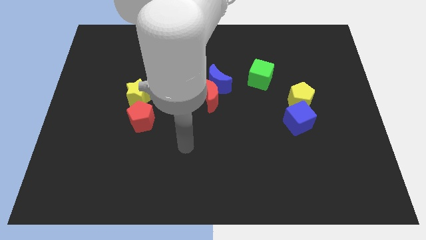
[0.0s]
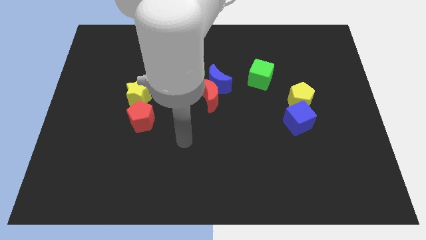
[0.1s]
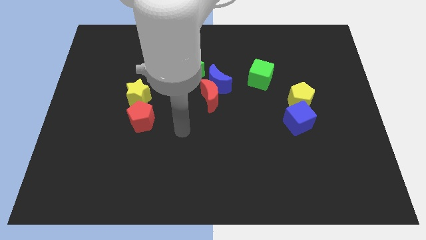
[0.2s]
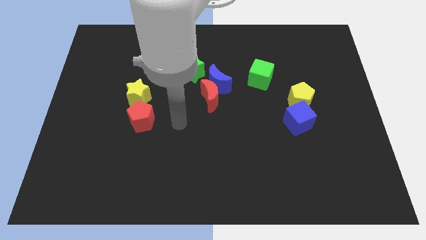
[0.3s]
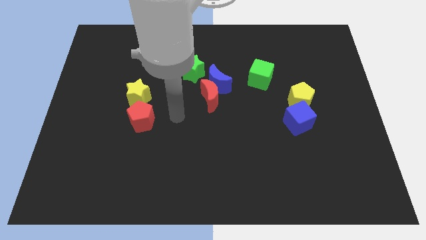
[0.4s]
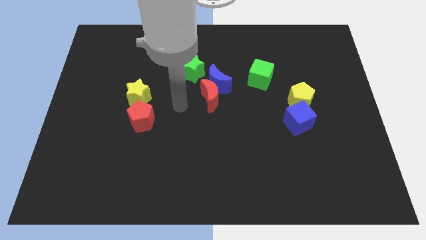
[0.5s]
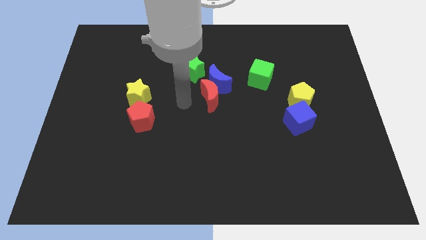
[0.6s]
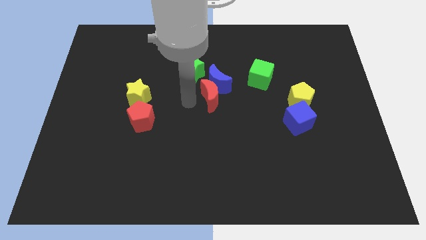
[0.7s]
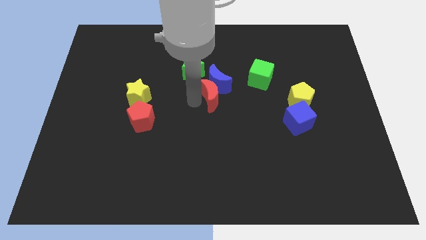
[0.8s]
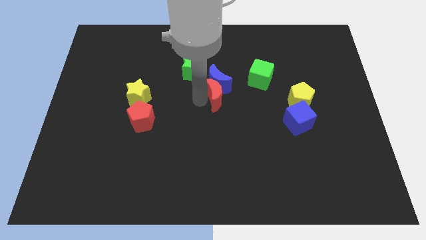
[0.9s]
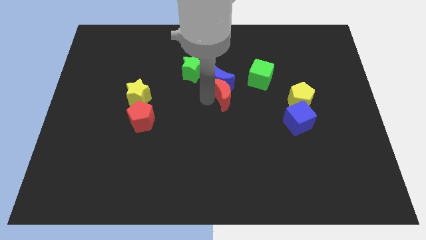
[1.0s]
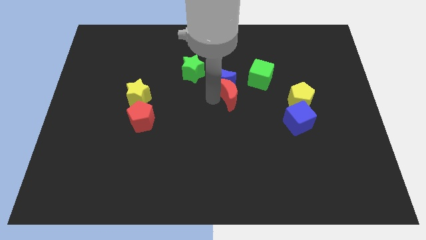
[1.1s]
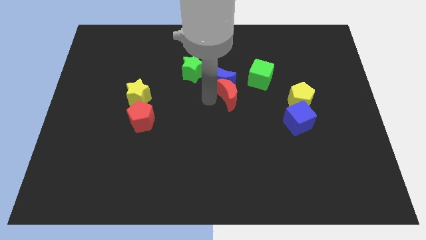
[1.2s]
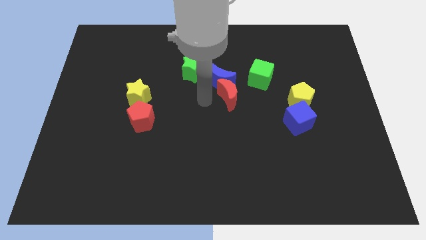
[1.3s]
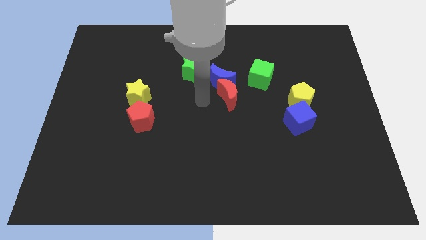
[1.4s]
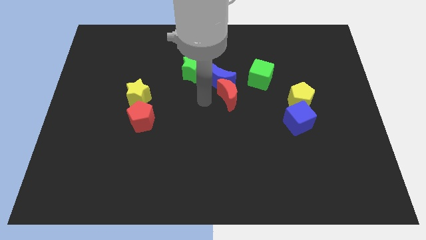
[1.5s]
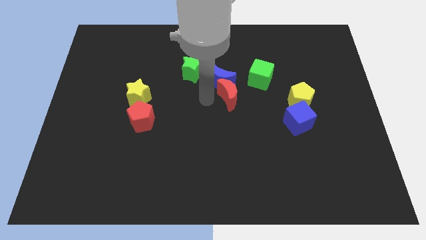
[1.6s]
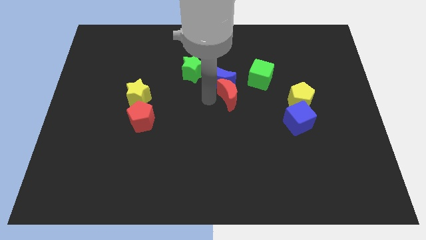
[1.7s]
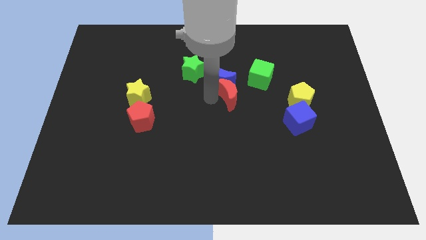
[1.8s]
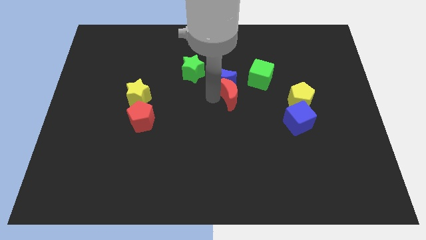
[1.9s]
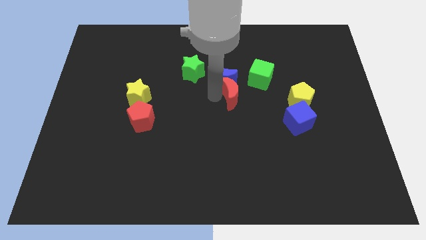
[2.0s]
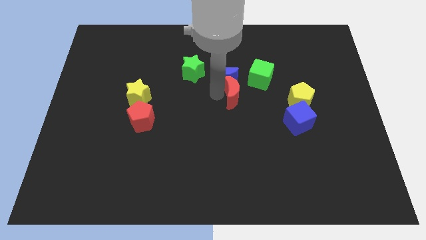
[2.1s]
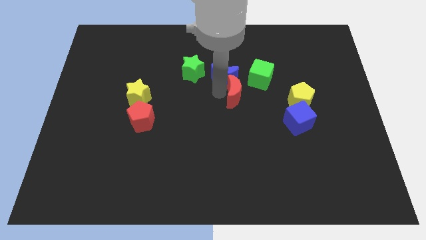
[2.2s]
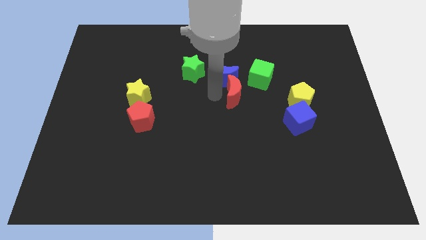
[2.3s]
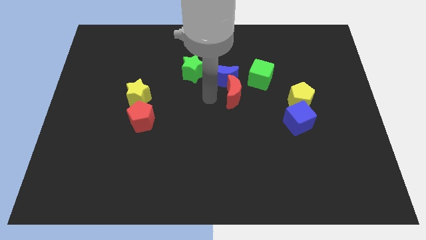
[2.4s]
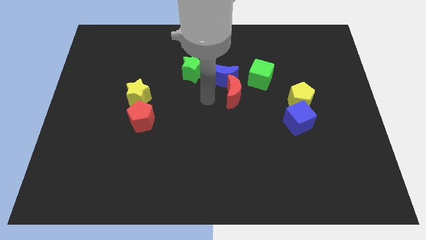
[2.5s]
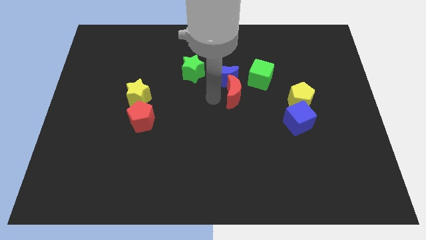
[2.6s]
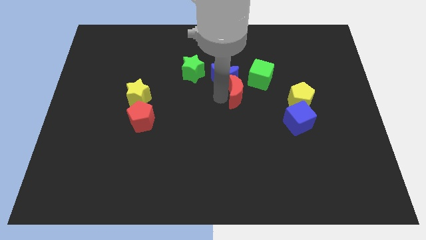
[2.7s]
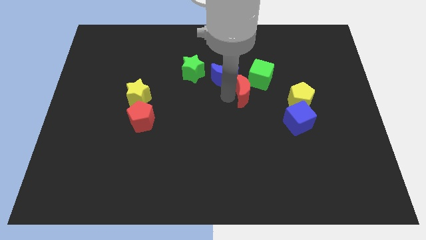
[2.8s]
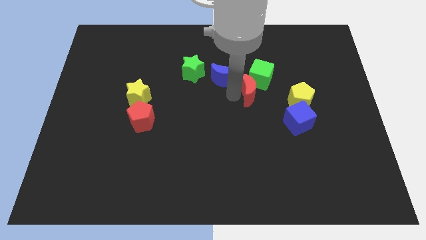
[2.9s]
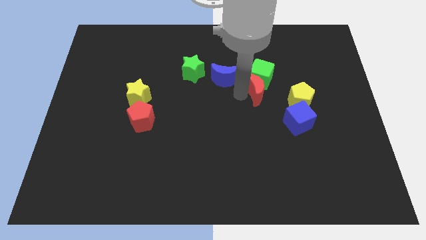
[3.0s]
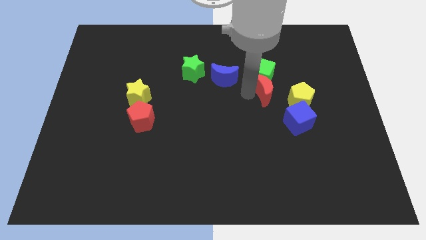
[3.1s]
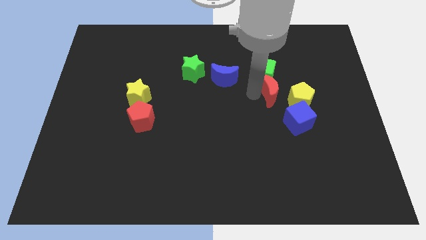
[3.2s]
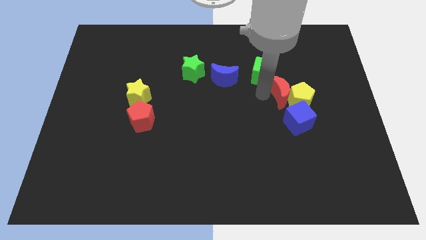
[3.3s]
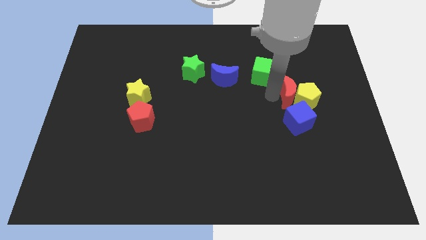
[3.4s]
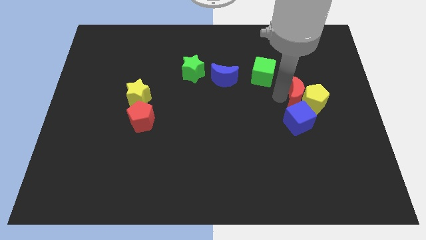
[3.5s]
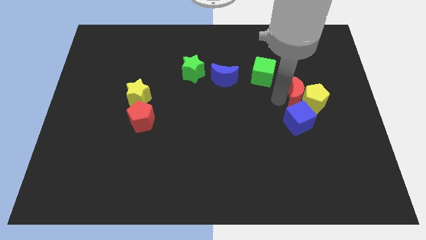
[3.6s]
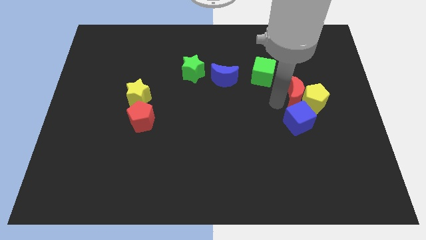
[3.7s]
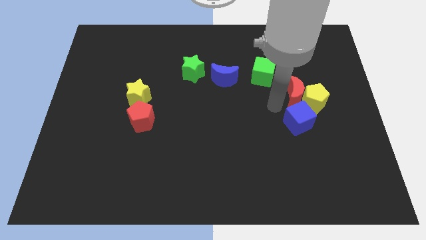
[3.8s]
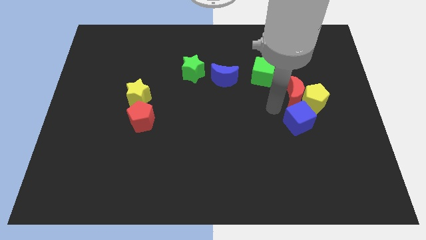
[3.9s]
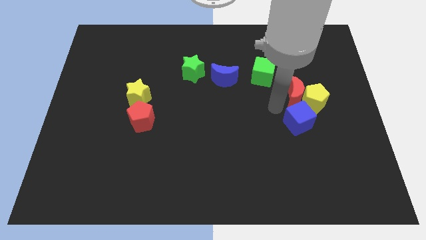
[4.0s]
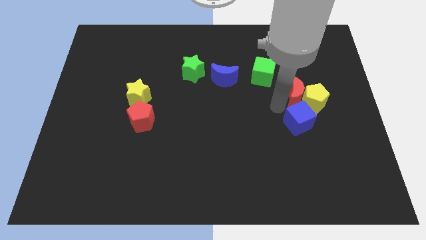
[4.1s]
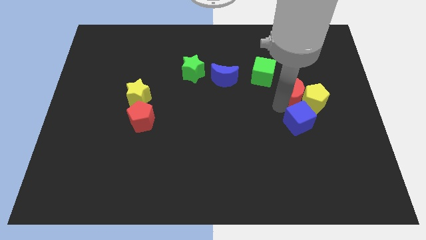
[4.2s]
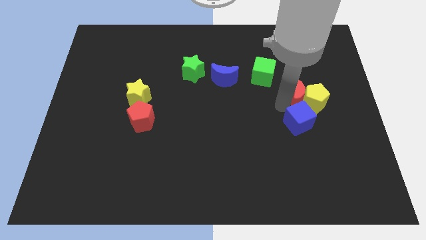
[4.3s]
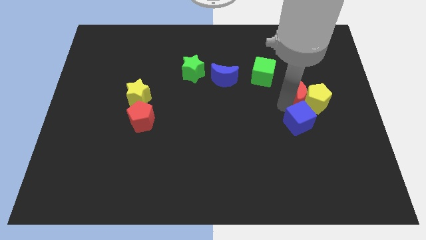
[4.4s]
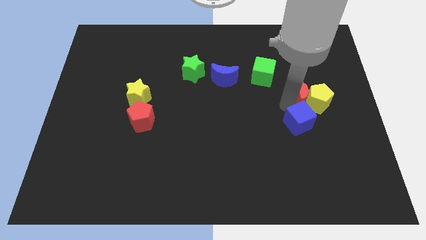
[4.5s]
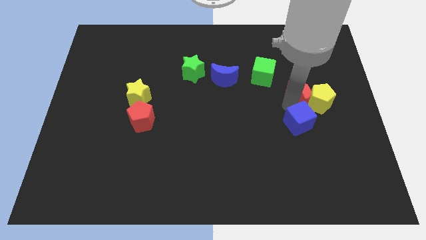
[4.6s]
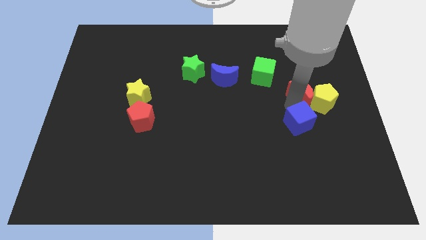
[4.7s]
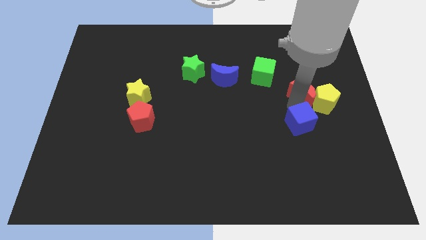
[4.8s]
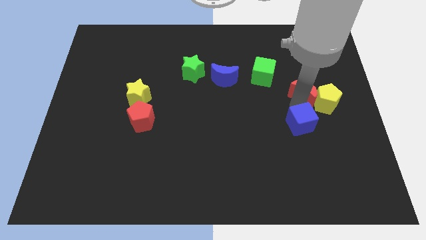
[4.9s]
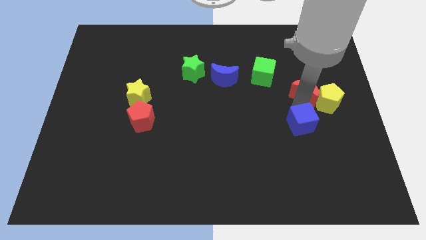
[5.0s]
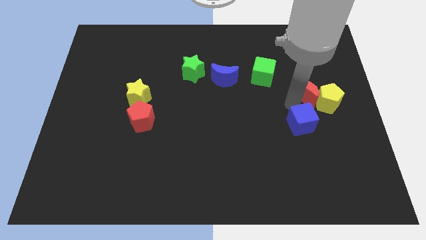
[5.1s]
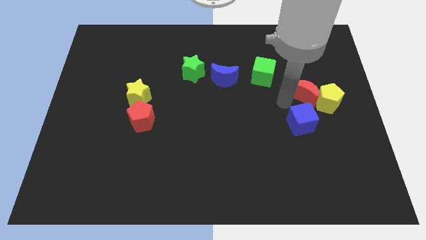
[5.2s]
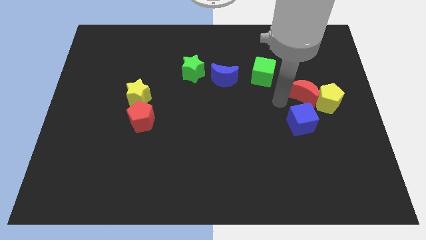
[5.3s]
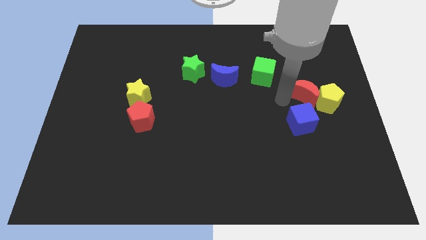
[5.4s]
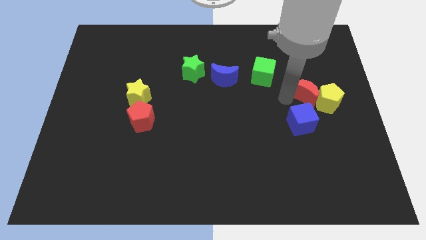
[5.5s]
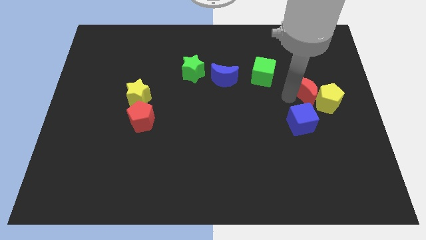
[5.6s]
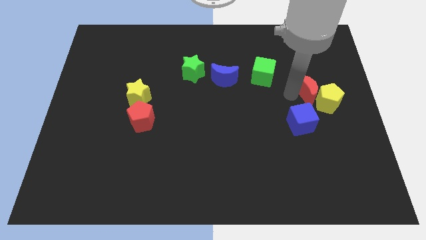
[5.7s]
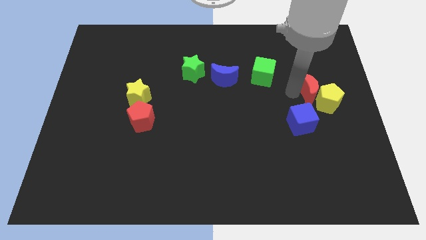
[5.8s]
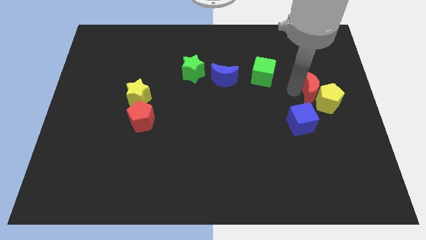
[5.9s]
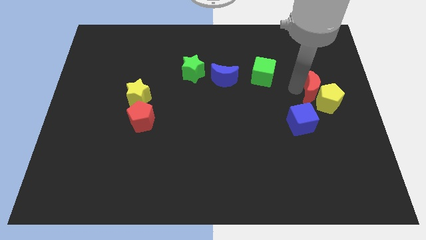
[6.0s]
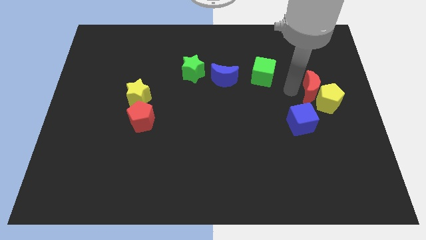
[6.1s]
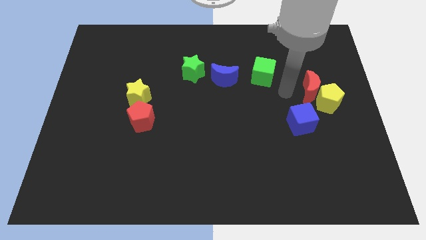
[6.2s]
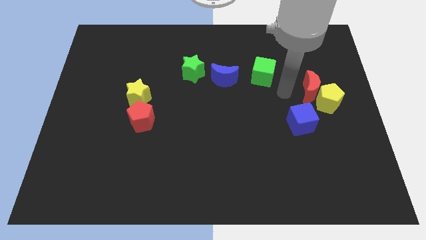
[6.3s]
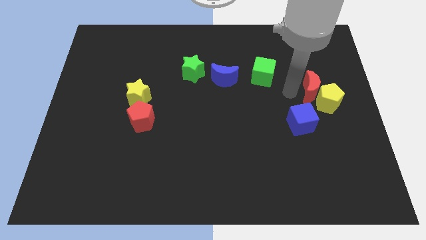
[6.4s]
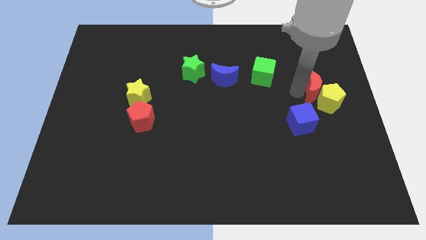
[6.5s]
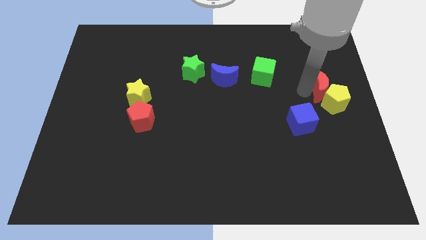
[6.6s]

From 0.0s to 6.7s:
push the red moon to the right side
